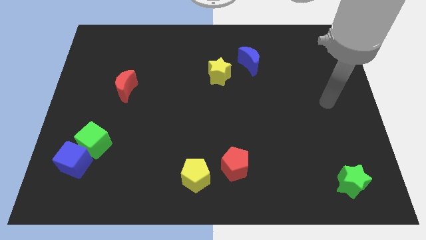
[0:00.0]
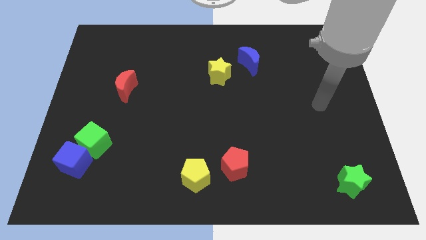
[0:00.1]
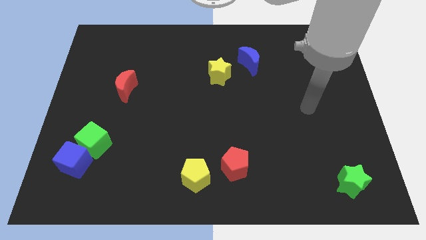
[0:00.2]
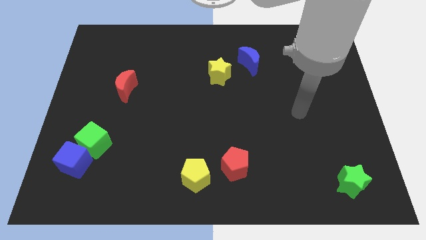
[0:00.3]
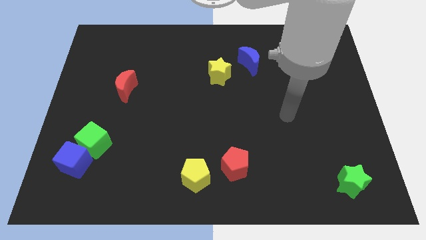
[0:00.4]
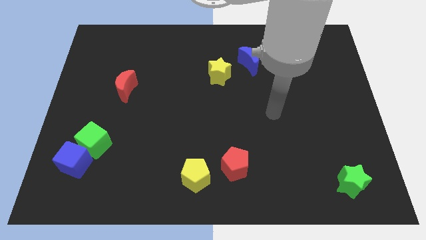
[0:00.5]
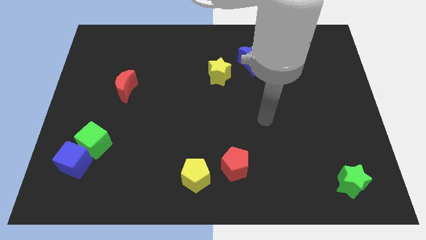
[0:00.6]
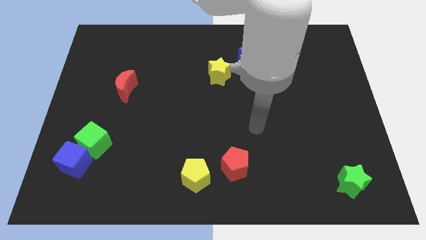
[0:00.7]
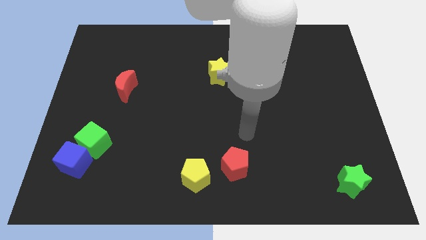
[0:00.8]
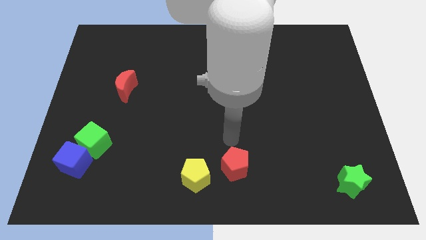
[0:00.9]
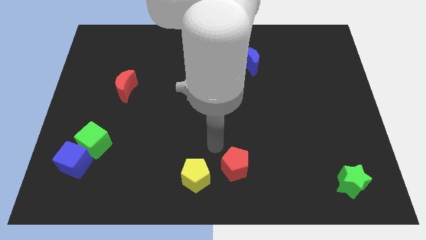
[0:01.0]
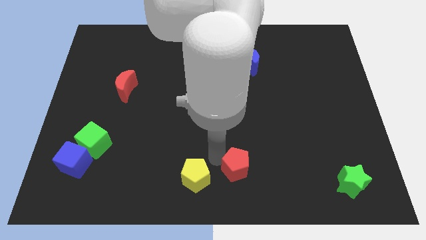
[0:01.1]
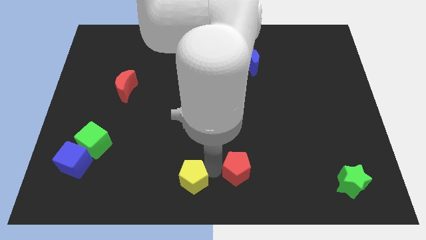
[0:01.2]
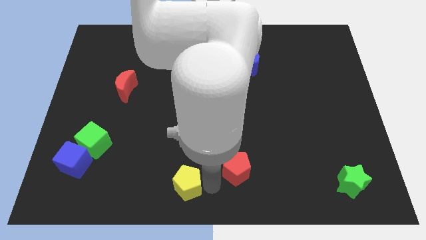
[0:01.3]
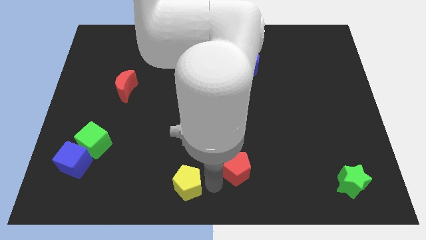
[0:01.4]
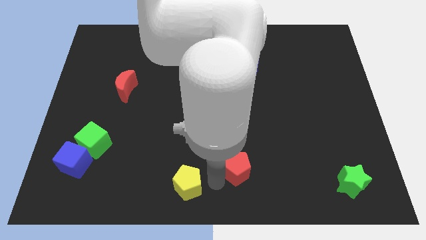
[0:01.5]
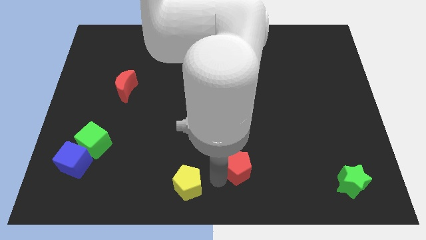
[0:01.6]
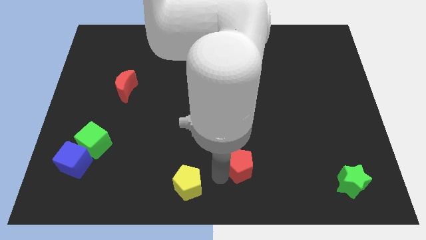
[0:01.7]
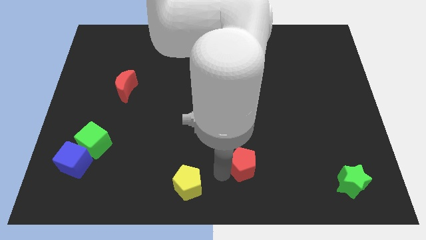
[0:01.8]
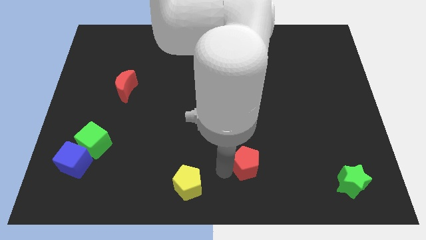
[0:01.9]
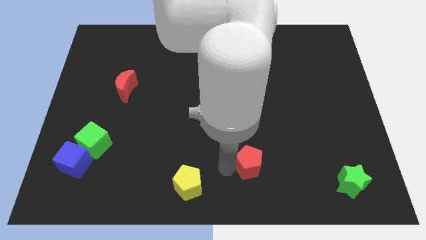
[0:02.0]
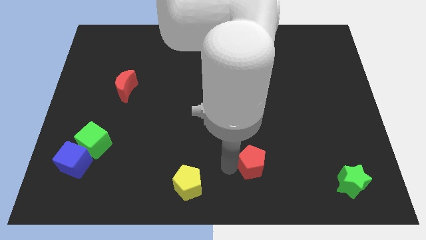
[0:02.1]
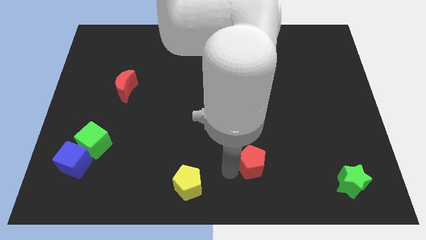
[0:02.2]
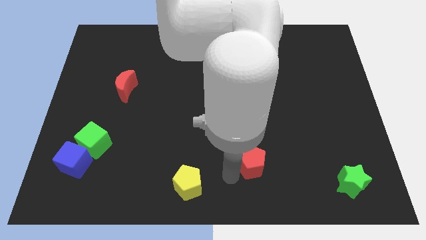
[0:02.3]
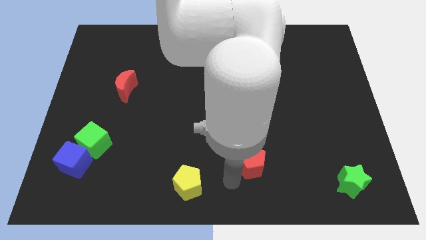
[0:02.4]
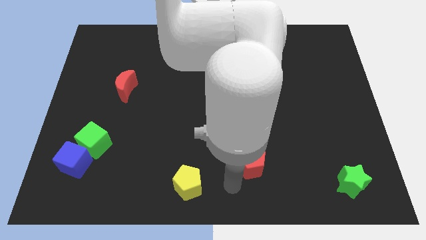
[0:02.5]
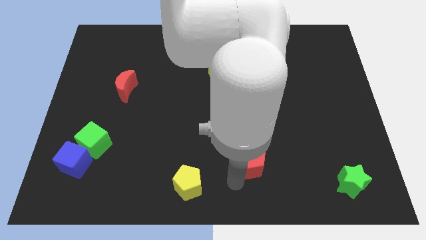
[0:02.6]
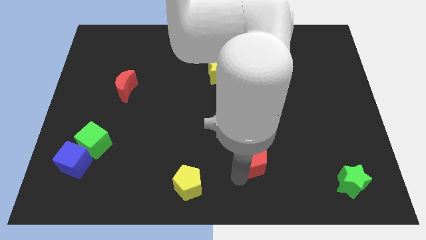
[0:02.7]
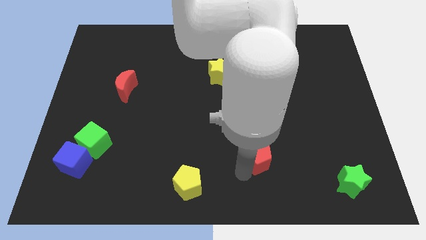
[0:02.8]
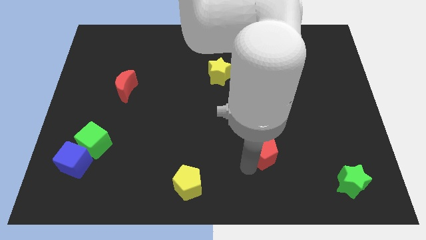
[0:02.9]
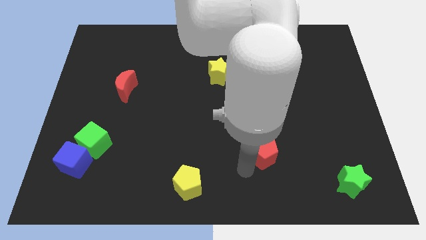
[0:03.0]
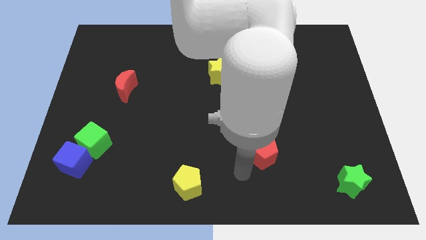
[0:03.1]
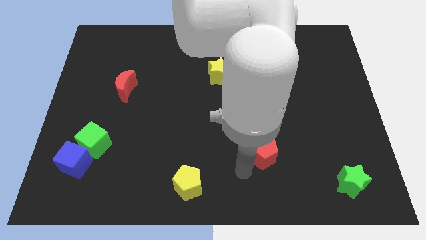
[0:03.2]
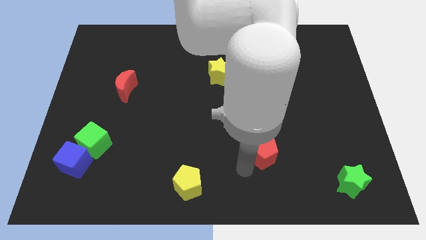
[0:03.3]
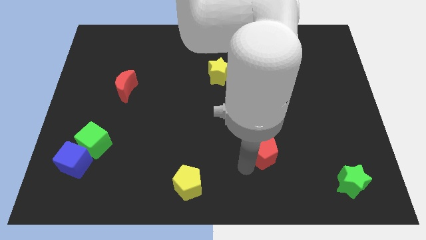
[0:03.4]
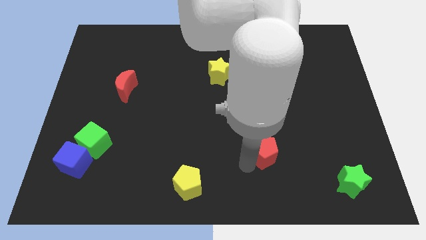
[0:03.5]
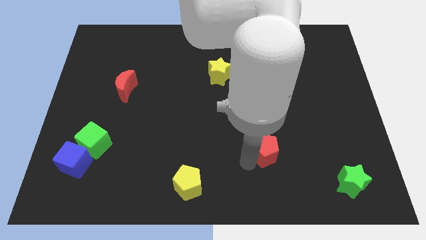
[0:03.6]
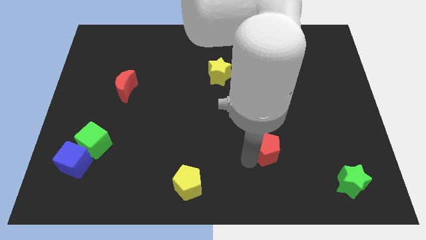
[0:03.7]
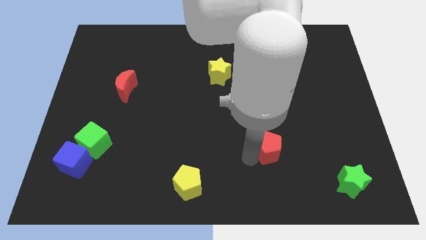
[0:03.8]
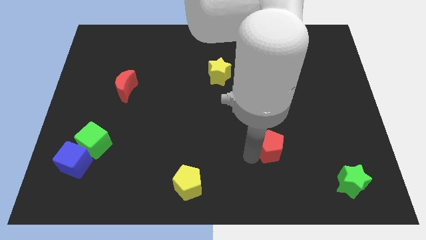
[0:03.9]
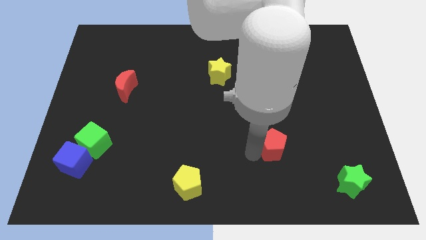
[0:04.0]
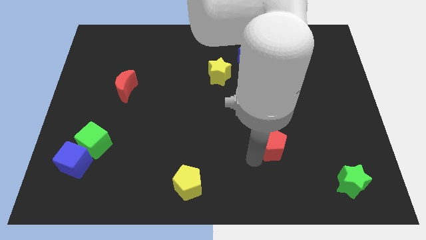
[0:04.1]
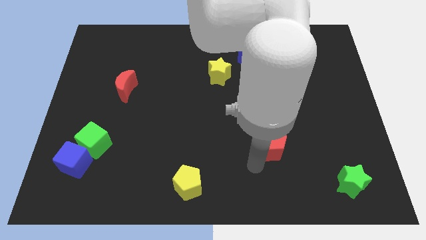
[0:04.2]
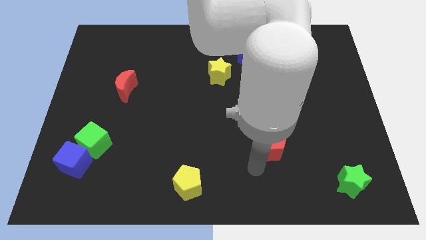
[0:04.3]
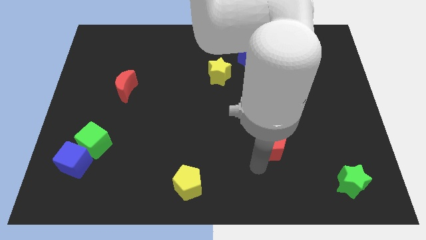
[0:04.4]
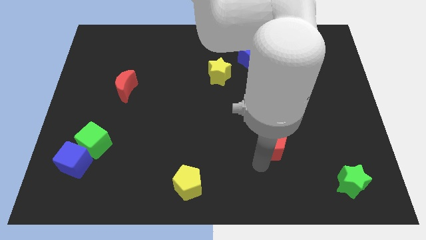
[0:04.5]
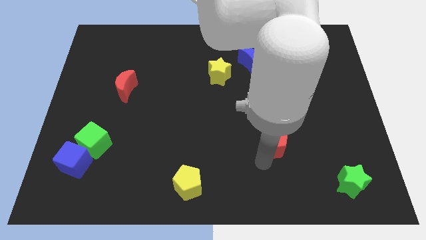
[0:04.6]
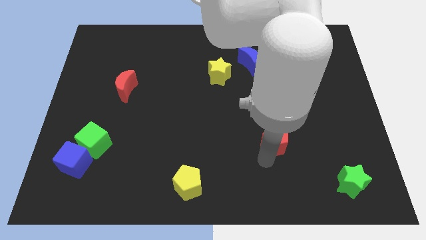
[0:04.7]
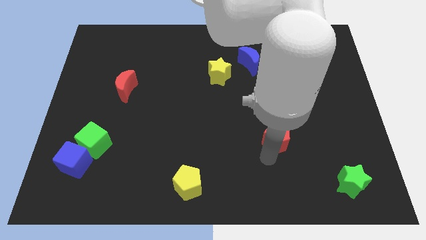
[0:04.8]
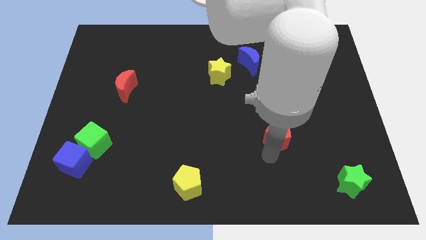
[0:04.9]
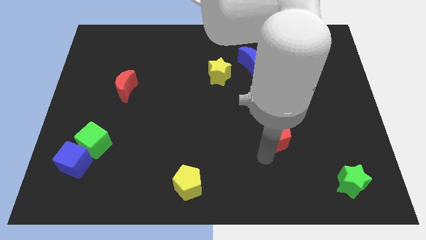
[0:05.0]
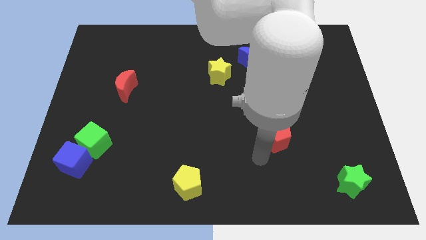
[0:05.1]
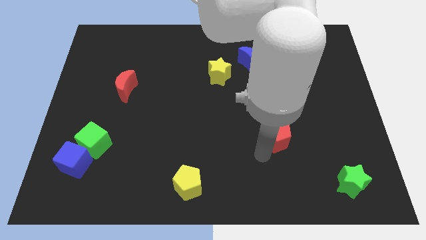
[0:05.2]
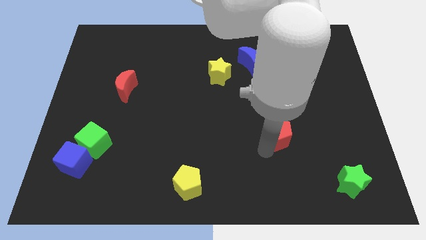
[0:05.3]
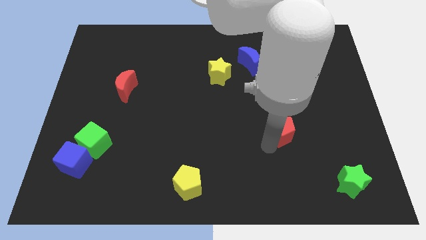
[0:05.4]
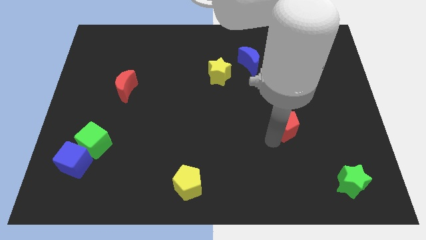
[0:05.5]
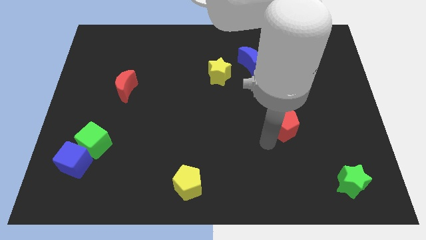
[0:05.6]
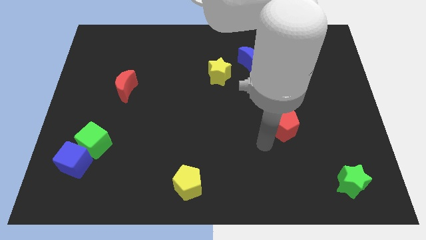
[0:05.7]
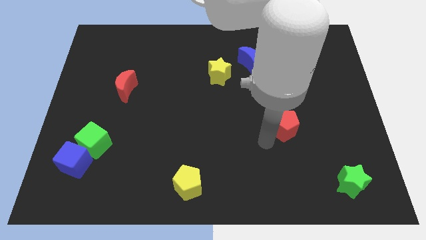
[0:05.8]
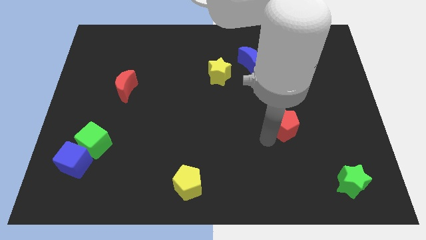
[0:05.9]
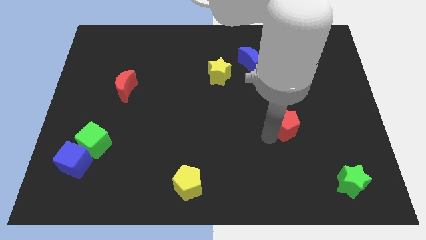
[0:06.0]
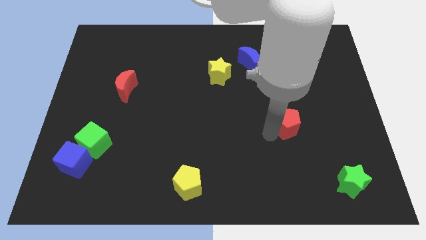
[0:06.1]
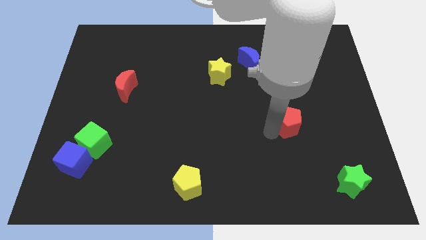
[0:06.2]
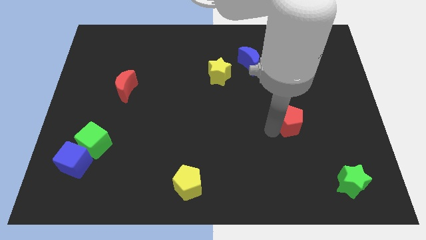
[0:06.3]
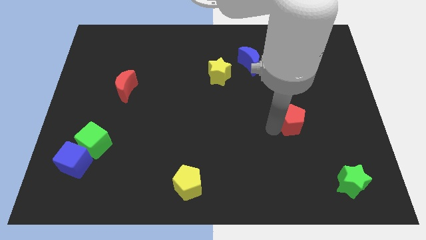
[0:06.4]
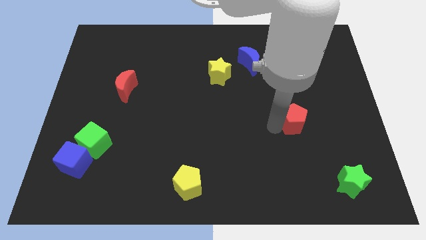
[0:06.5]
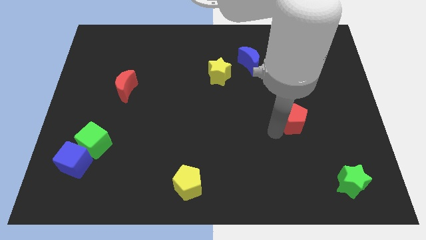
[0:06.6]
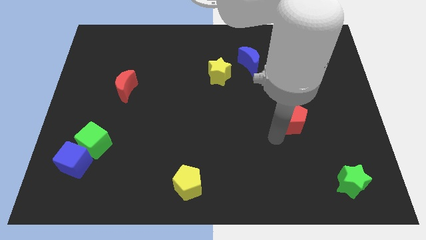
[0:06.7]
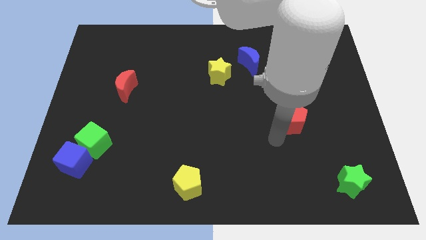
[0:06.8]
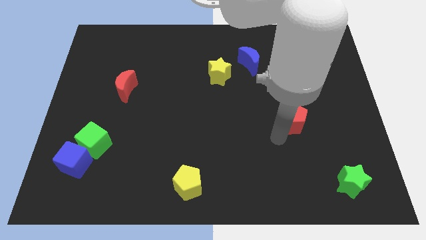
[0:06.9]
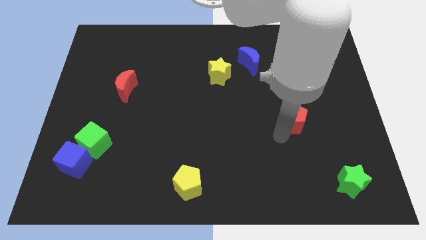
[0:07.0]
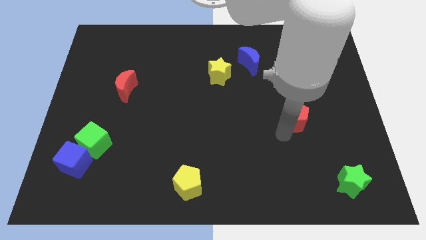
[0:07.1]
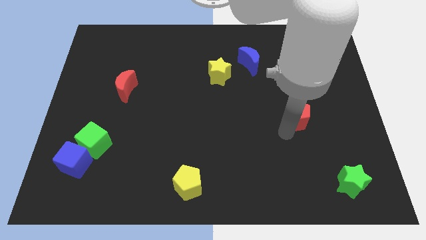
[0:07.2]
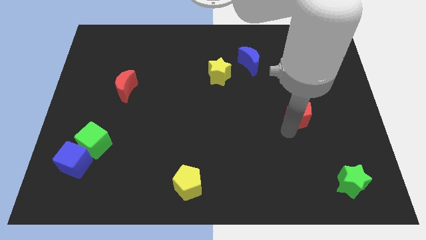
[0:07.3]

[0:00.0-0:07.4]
slide the red pentagon up and right

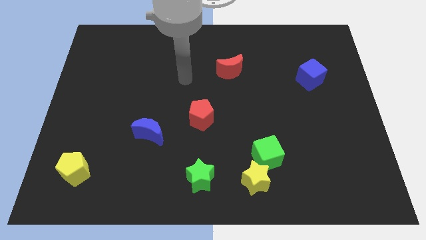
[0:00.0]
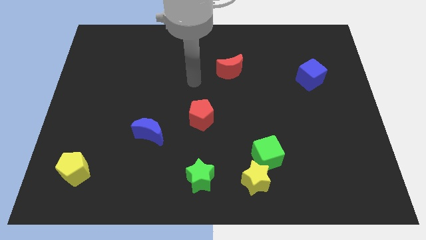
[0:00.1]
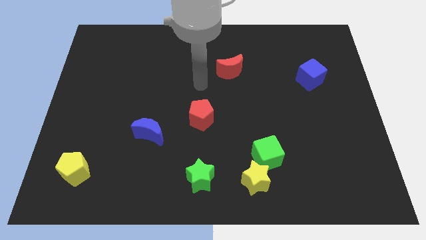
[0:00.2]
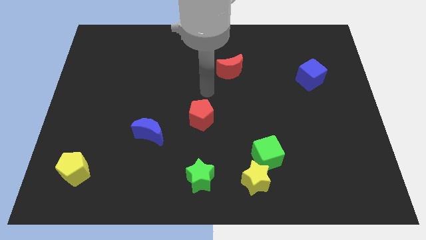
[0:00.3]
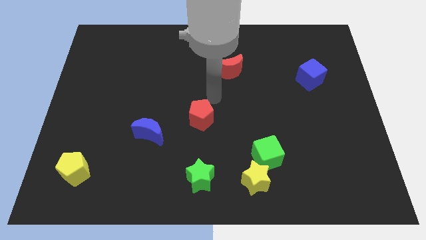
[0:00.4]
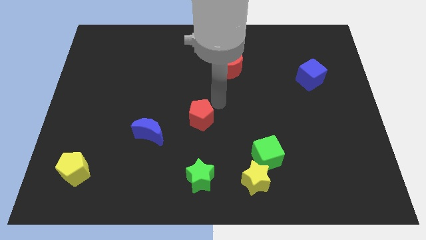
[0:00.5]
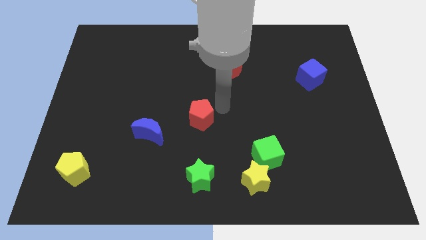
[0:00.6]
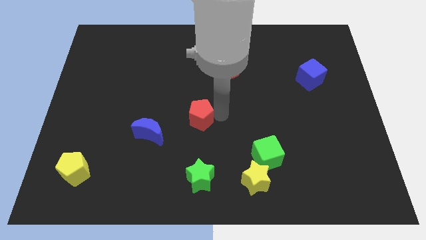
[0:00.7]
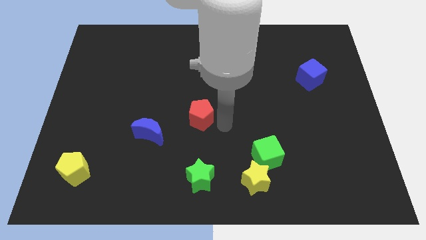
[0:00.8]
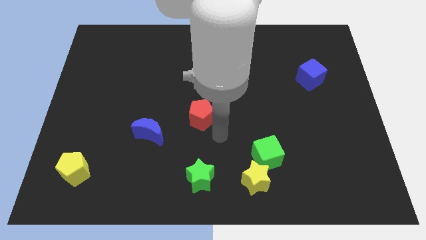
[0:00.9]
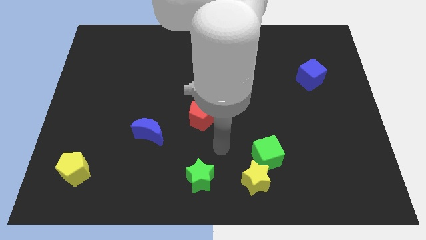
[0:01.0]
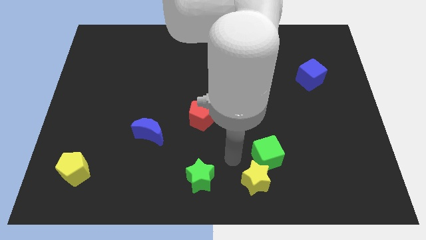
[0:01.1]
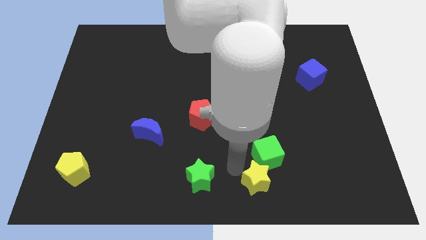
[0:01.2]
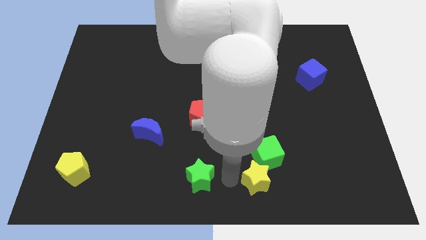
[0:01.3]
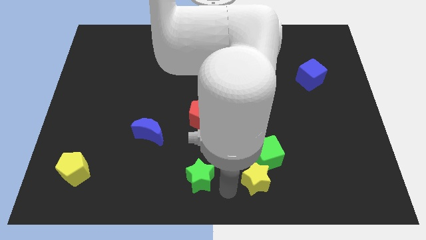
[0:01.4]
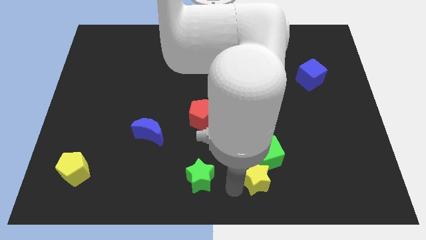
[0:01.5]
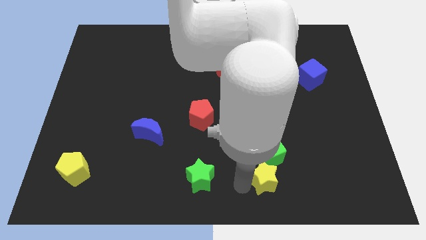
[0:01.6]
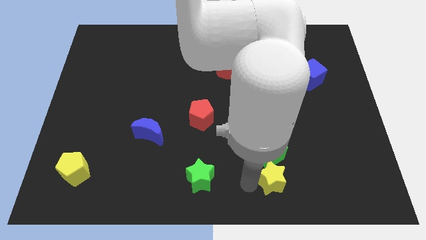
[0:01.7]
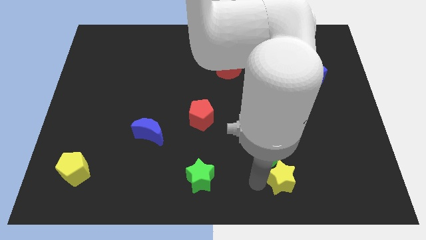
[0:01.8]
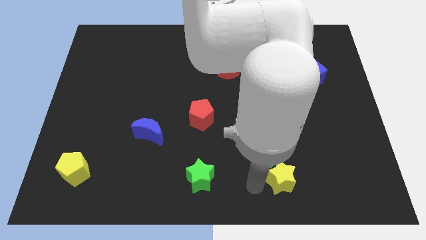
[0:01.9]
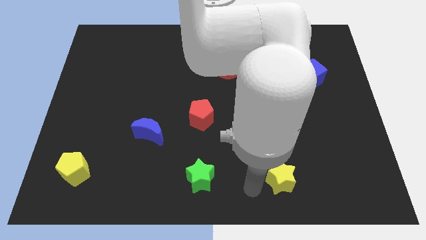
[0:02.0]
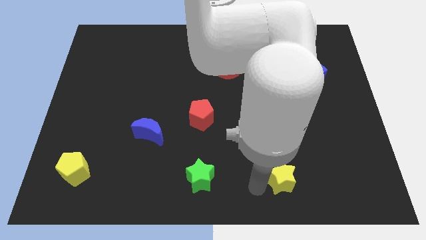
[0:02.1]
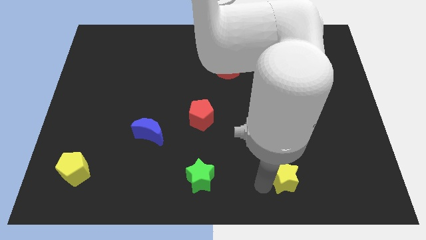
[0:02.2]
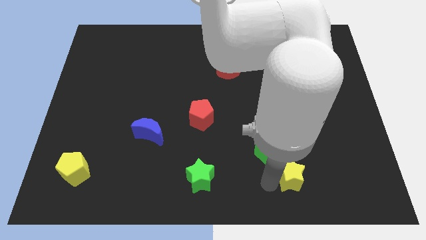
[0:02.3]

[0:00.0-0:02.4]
slightly slide the yellow star right
